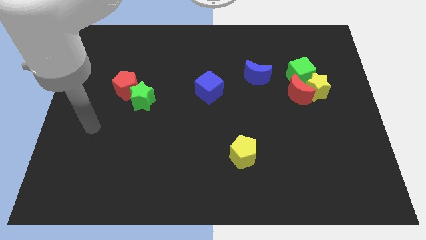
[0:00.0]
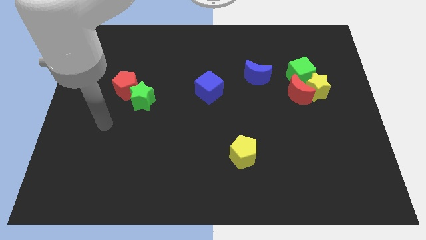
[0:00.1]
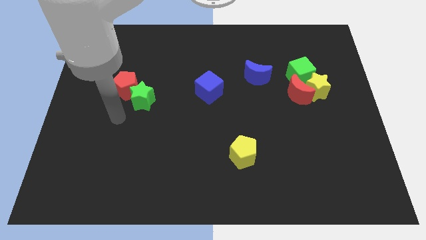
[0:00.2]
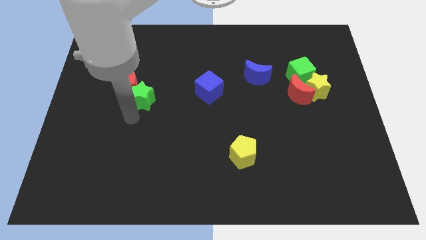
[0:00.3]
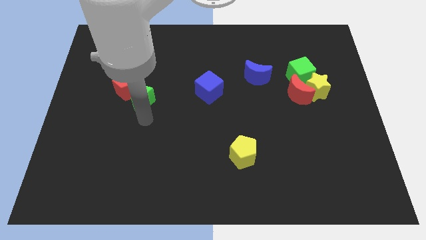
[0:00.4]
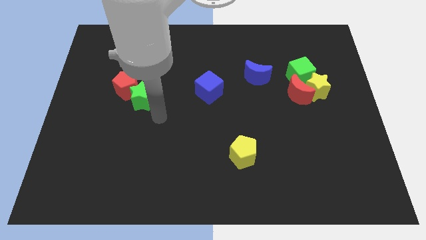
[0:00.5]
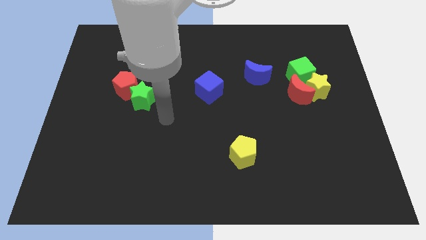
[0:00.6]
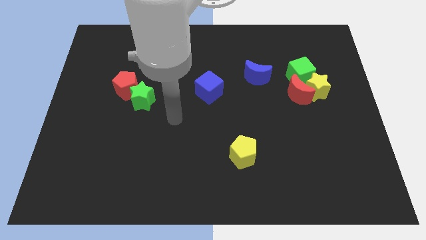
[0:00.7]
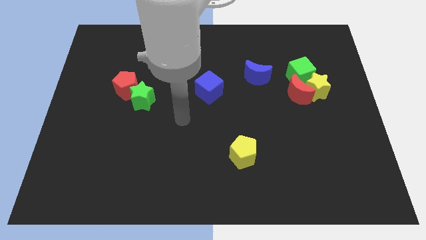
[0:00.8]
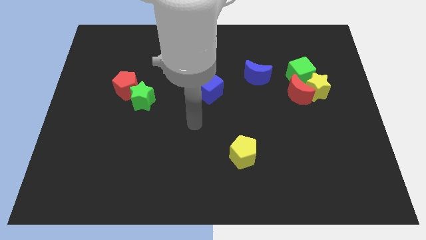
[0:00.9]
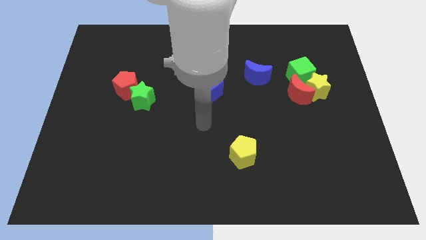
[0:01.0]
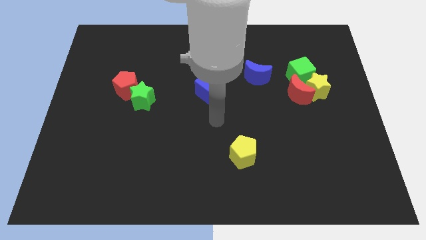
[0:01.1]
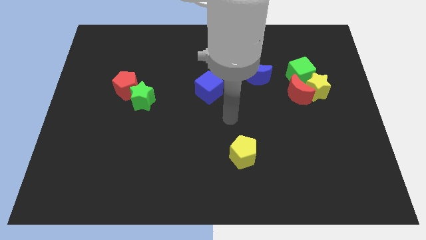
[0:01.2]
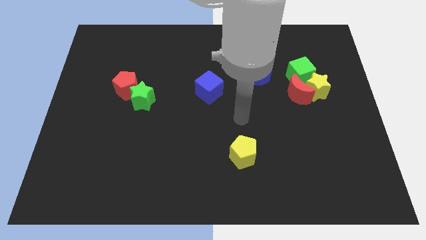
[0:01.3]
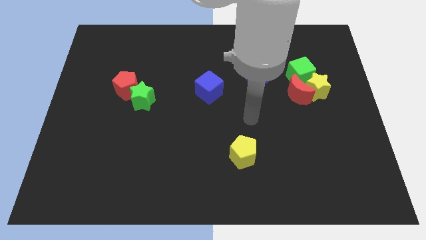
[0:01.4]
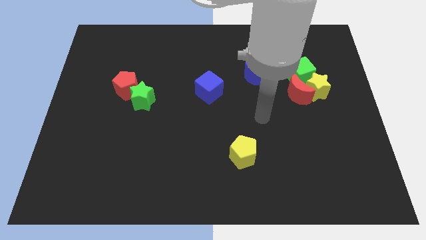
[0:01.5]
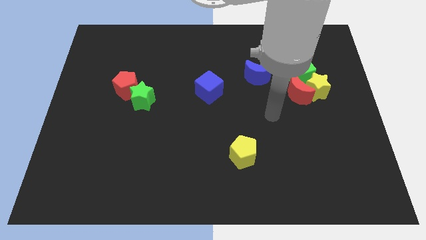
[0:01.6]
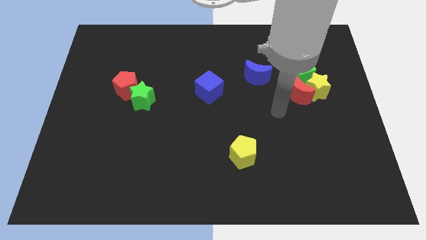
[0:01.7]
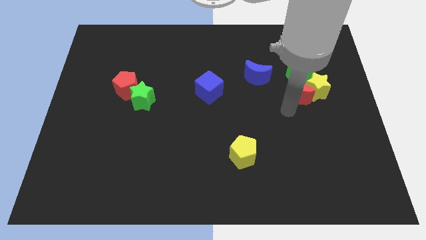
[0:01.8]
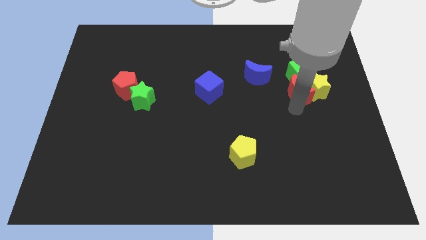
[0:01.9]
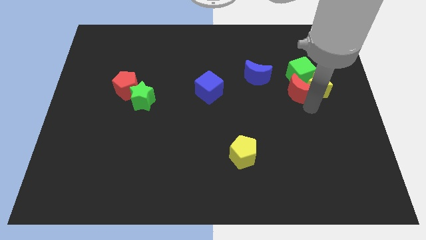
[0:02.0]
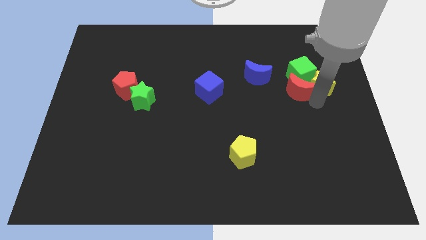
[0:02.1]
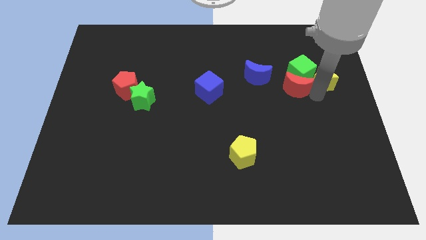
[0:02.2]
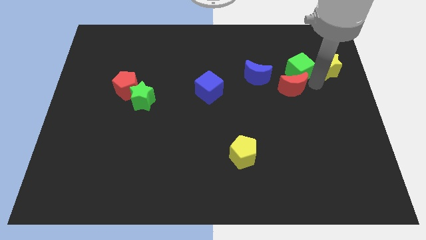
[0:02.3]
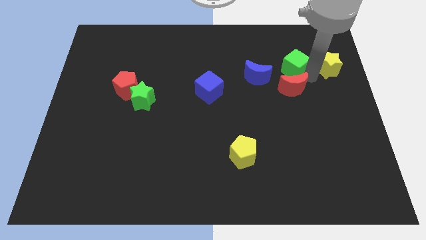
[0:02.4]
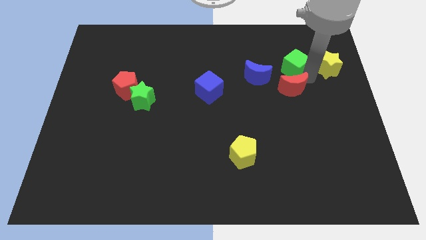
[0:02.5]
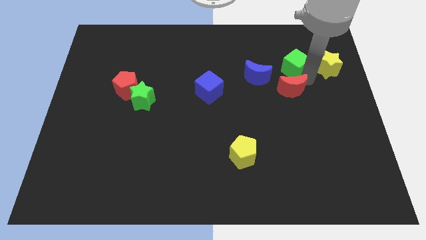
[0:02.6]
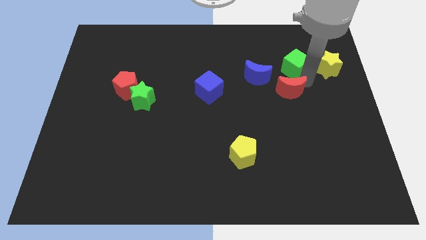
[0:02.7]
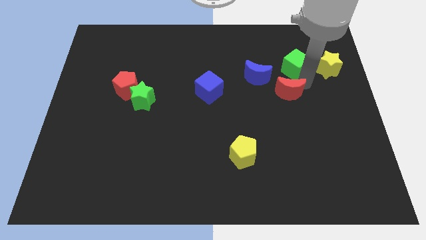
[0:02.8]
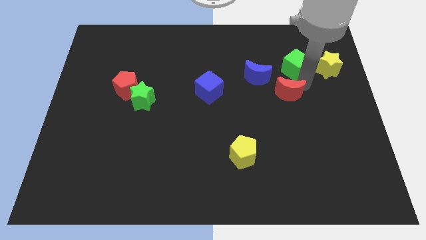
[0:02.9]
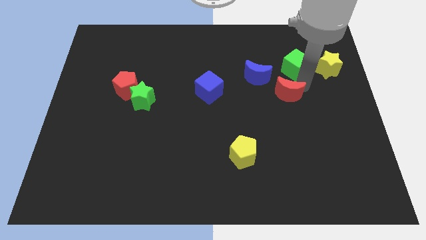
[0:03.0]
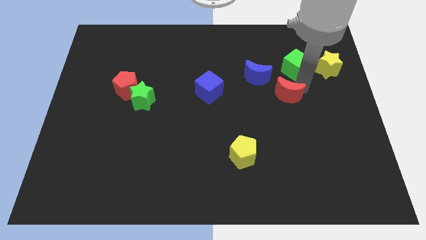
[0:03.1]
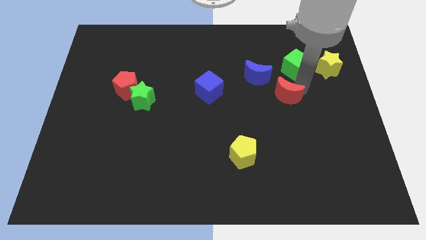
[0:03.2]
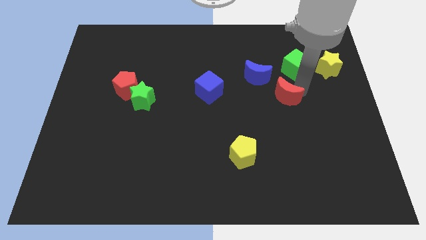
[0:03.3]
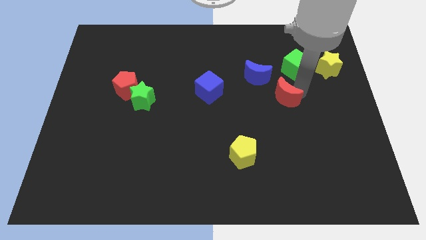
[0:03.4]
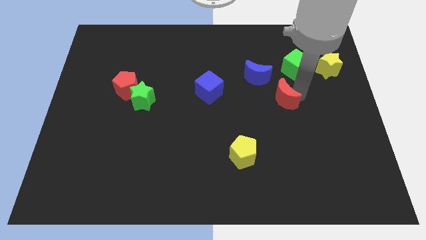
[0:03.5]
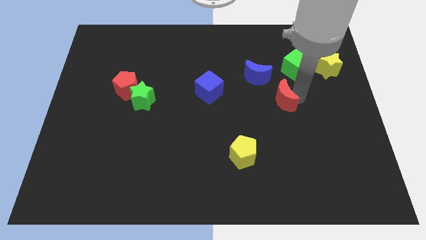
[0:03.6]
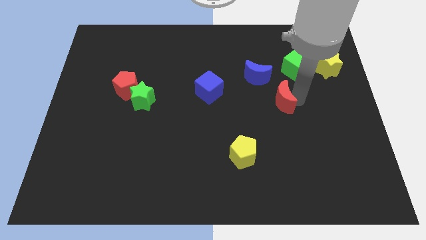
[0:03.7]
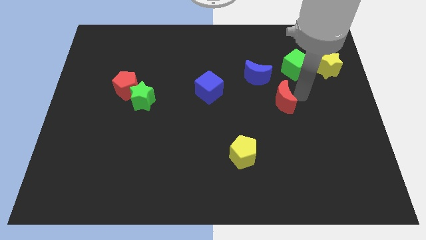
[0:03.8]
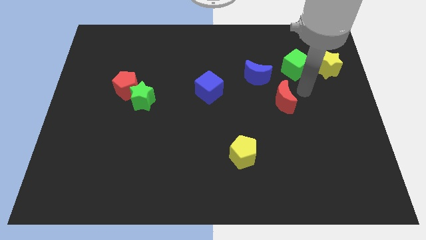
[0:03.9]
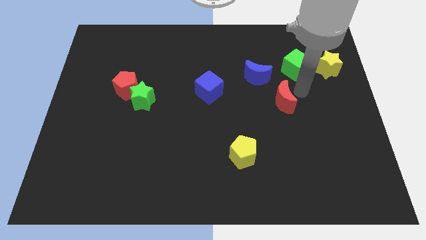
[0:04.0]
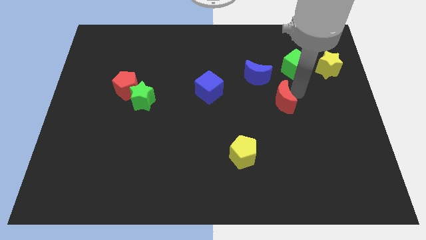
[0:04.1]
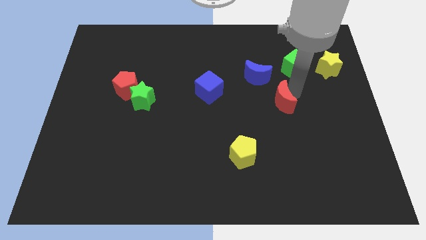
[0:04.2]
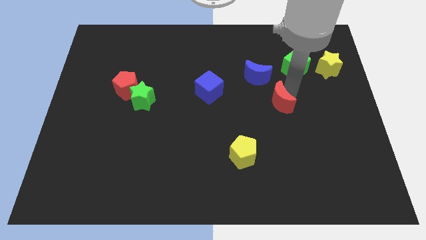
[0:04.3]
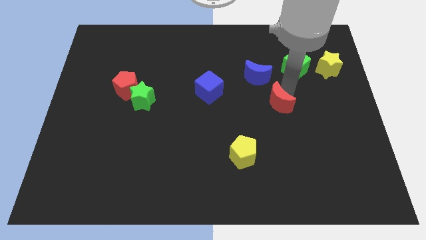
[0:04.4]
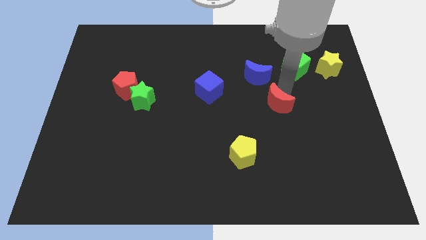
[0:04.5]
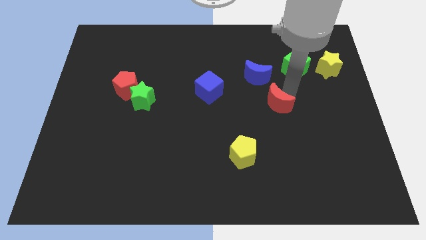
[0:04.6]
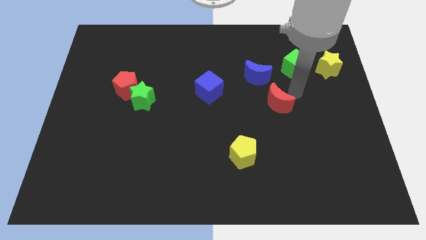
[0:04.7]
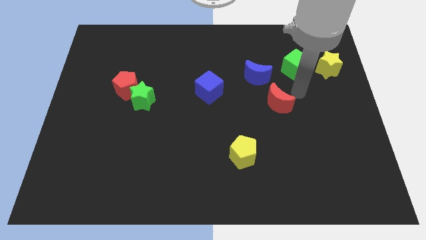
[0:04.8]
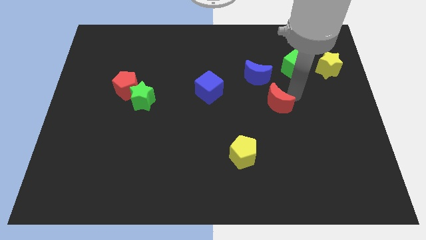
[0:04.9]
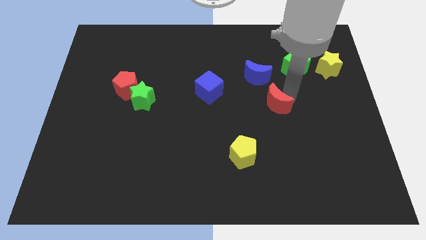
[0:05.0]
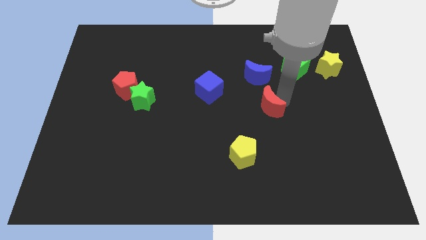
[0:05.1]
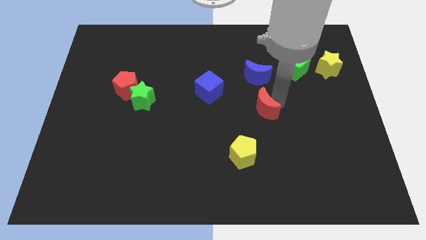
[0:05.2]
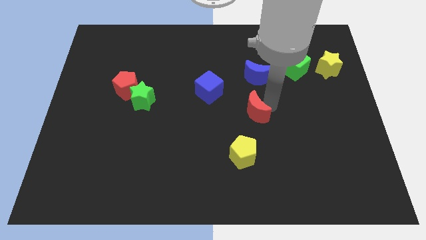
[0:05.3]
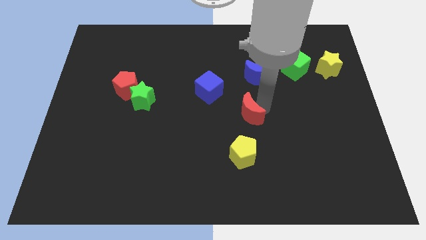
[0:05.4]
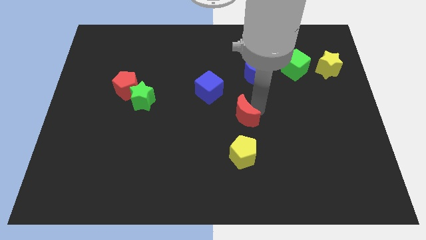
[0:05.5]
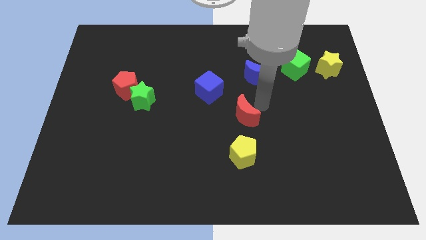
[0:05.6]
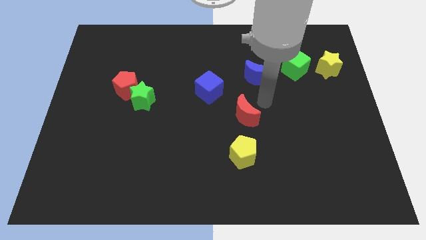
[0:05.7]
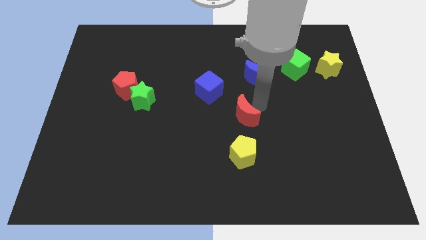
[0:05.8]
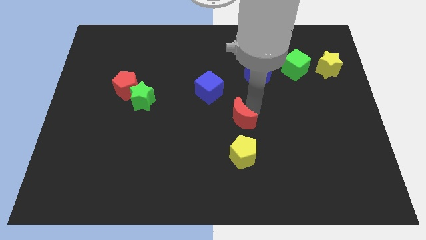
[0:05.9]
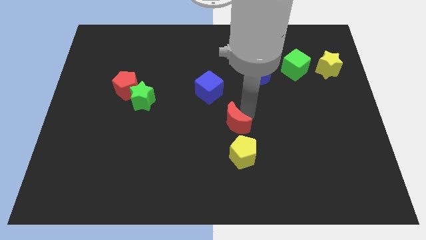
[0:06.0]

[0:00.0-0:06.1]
slide the red moon to the top left of the yellow pentagon

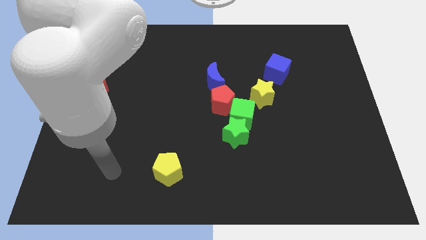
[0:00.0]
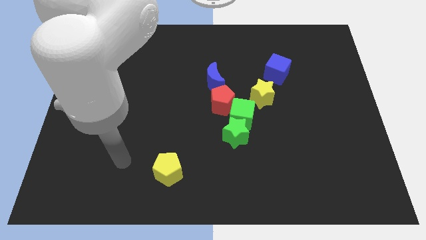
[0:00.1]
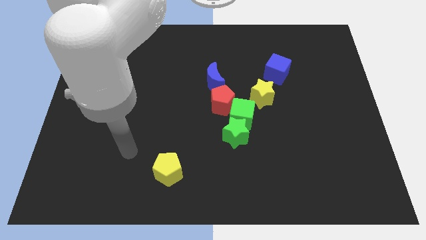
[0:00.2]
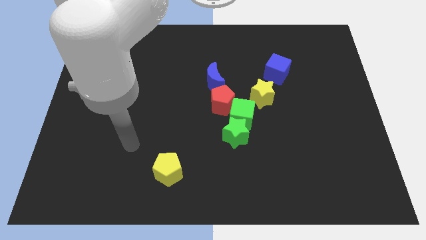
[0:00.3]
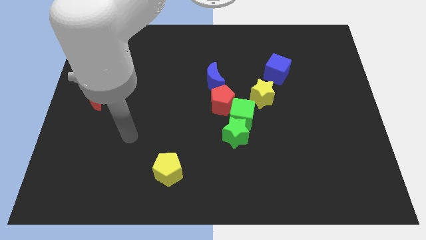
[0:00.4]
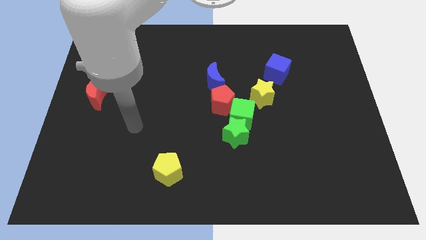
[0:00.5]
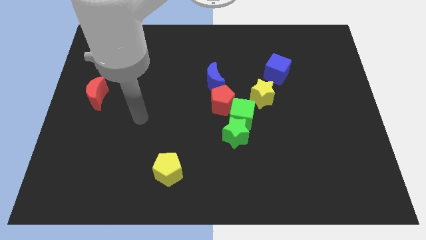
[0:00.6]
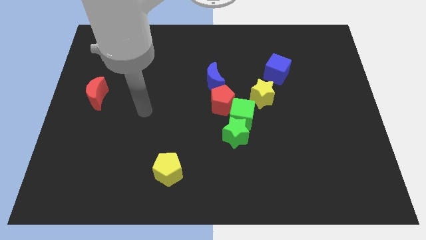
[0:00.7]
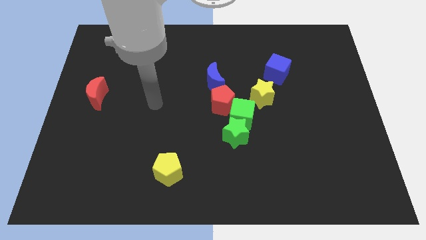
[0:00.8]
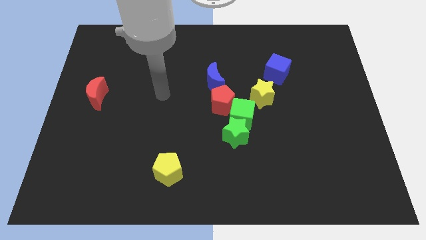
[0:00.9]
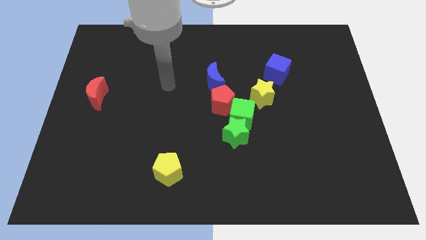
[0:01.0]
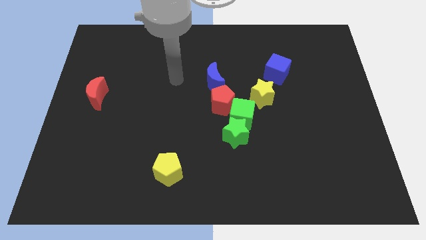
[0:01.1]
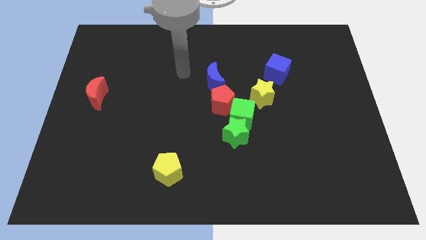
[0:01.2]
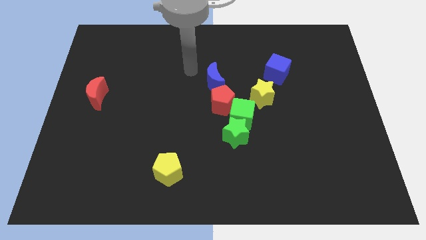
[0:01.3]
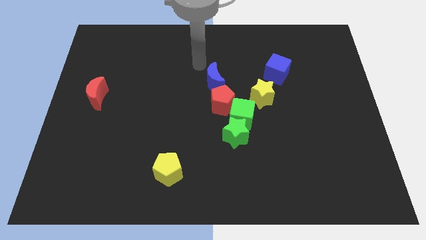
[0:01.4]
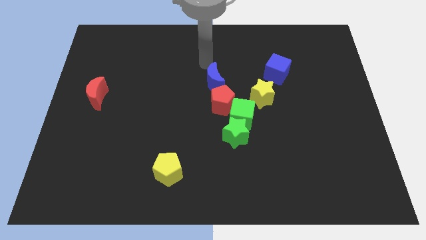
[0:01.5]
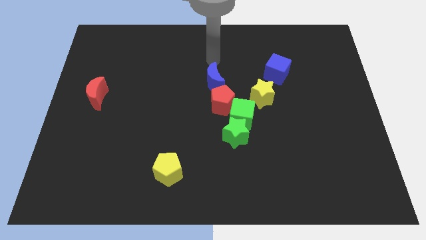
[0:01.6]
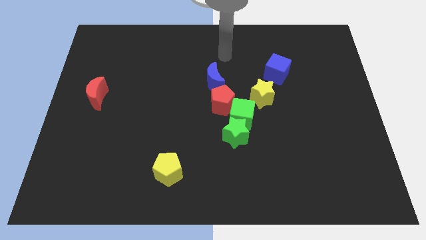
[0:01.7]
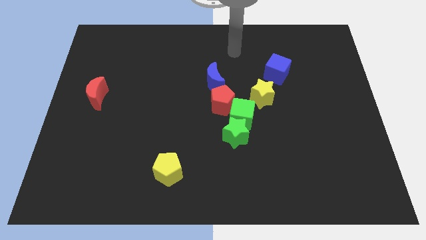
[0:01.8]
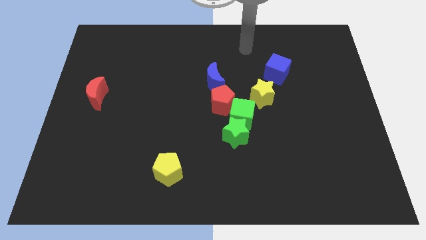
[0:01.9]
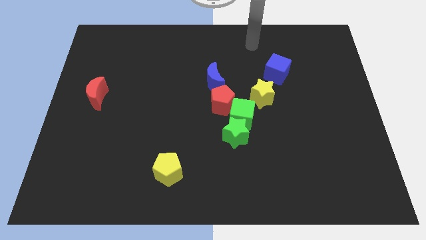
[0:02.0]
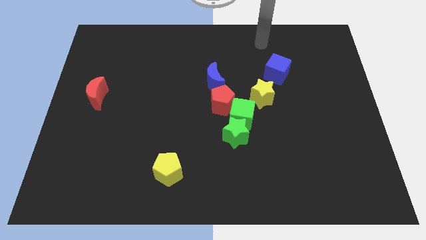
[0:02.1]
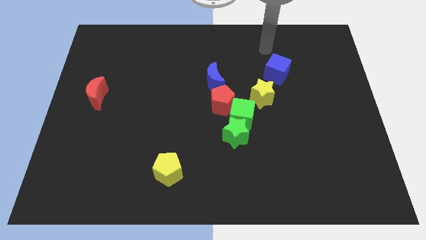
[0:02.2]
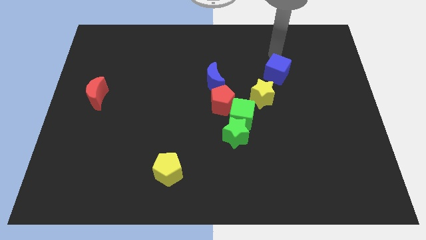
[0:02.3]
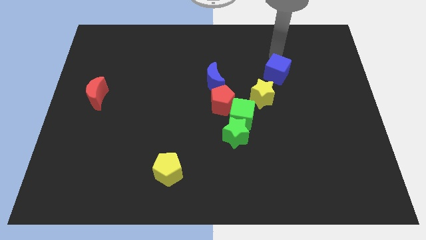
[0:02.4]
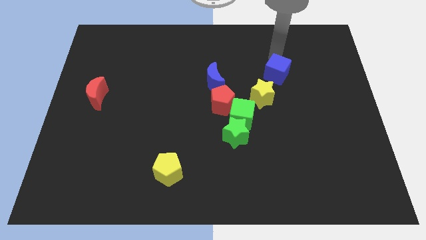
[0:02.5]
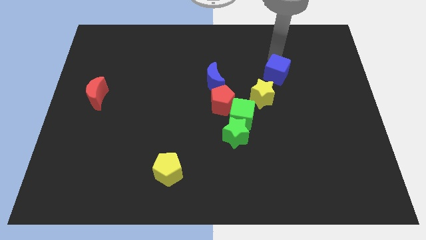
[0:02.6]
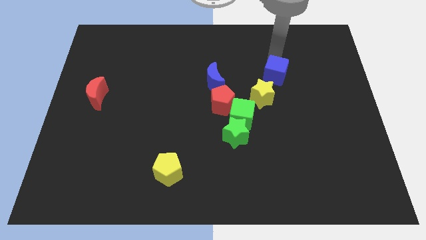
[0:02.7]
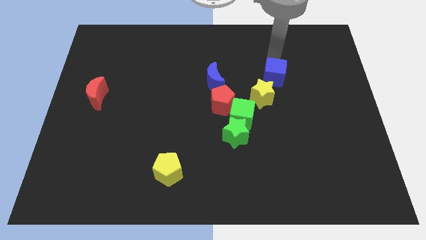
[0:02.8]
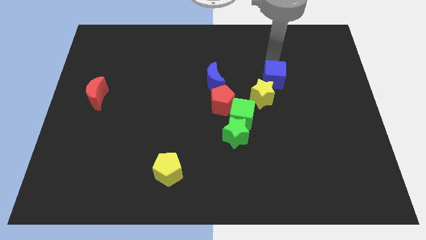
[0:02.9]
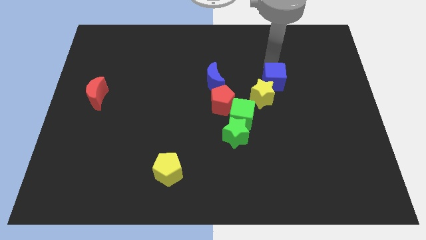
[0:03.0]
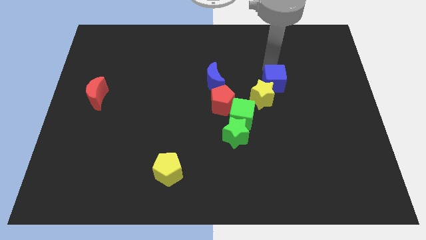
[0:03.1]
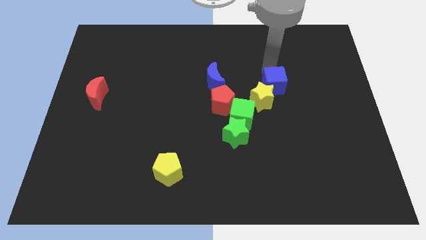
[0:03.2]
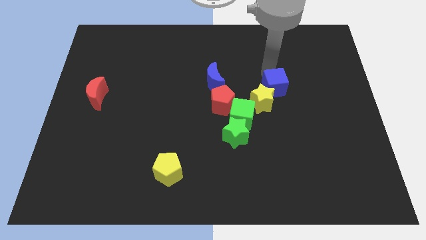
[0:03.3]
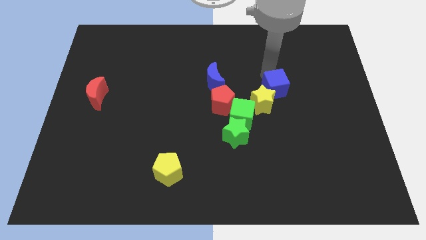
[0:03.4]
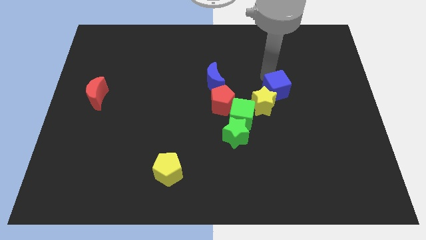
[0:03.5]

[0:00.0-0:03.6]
move the blue cube right of the red pentagon
